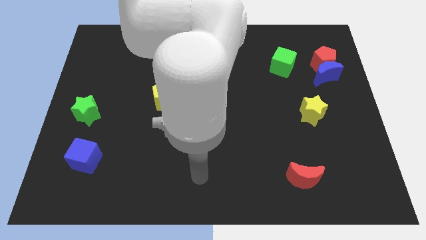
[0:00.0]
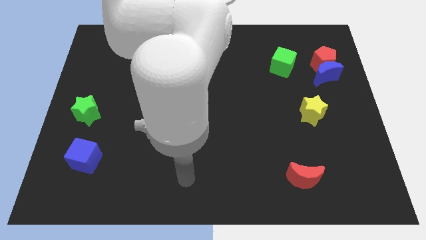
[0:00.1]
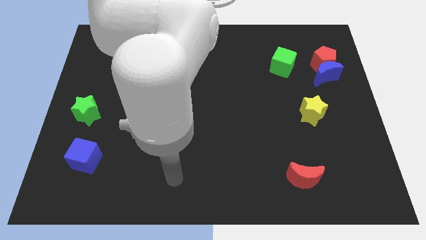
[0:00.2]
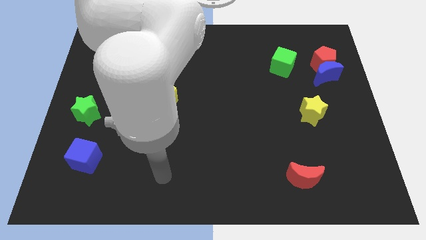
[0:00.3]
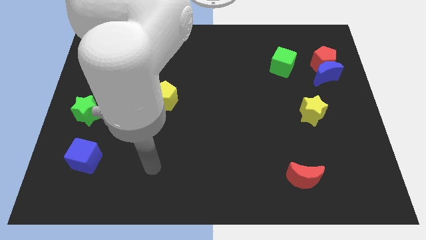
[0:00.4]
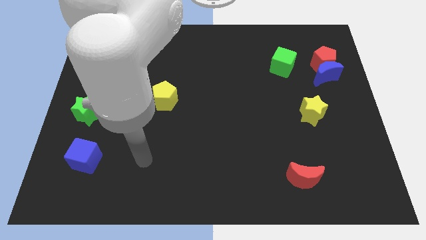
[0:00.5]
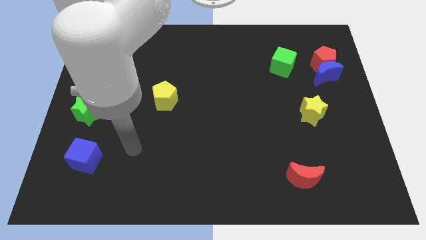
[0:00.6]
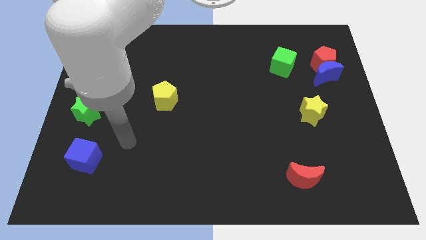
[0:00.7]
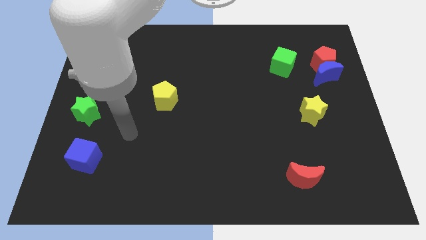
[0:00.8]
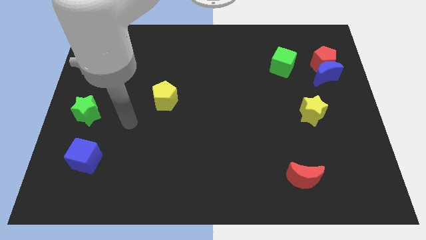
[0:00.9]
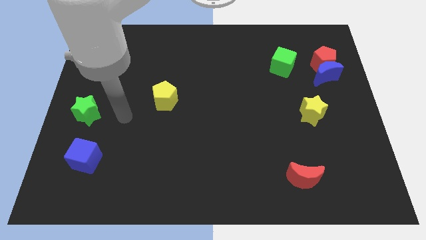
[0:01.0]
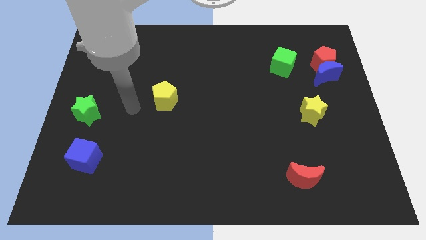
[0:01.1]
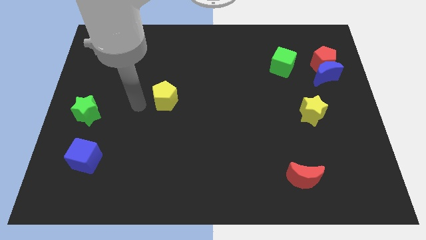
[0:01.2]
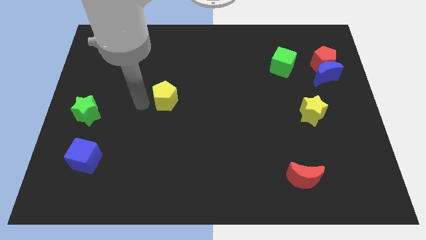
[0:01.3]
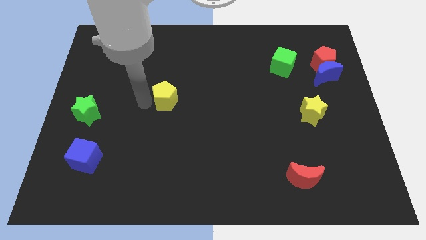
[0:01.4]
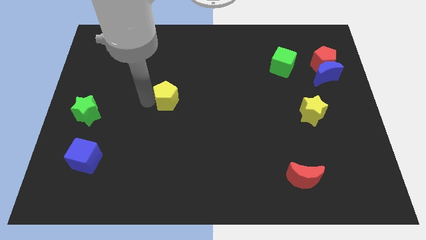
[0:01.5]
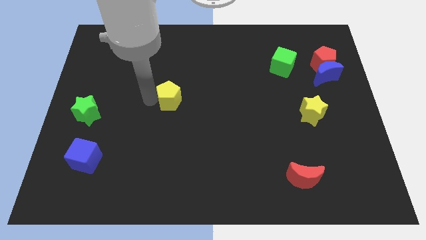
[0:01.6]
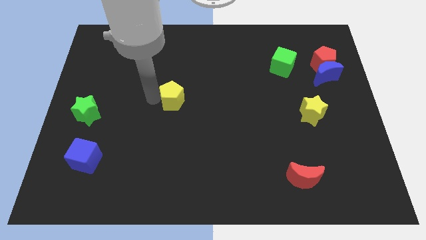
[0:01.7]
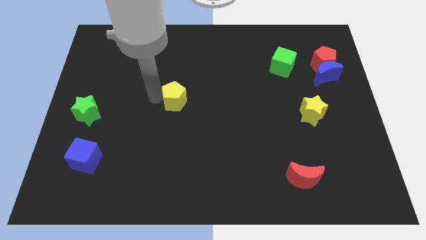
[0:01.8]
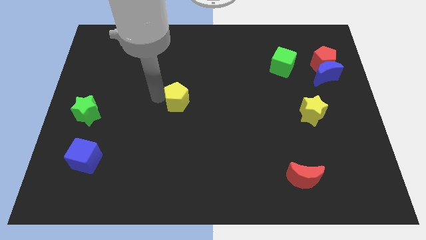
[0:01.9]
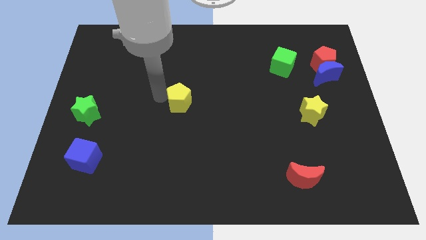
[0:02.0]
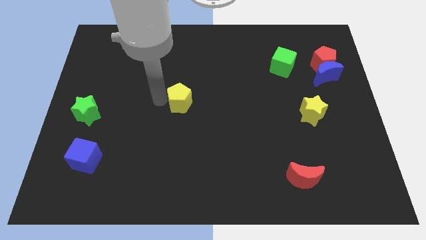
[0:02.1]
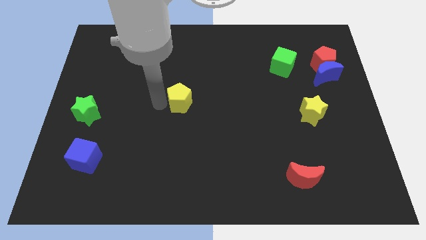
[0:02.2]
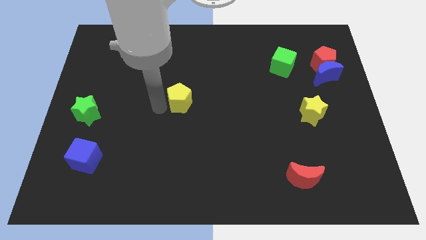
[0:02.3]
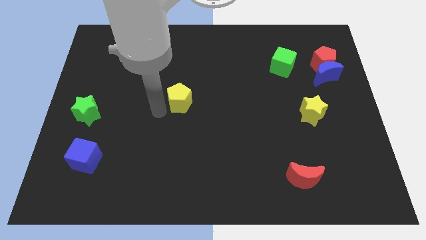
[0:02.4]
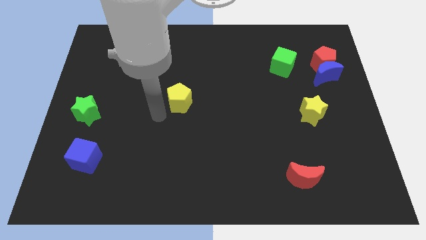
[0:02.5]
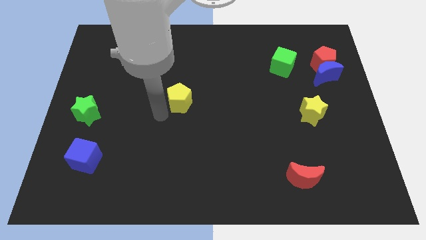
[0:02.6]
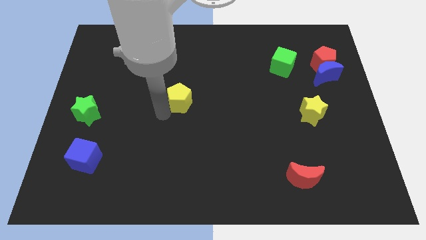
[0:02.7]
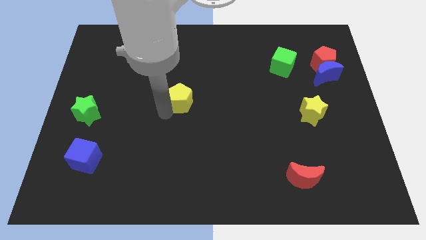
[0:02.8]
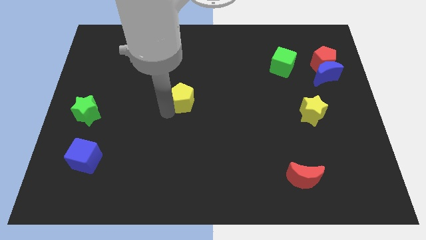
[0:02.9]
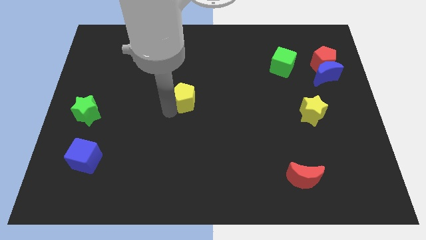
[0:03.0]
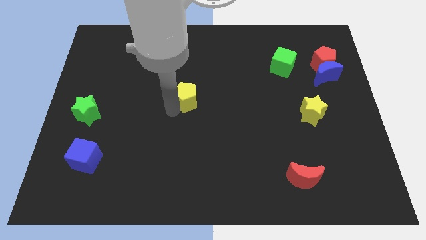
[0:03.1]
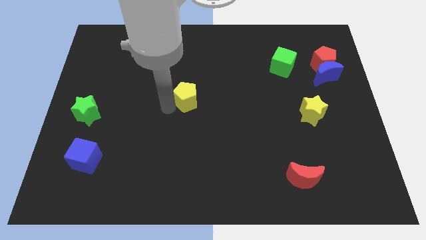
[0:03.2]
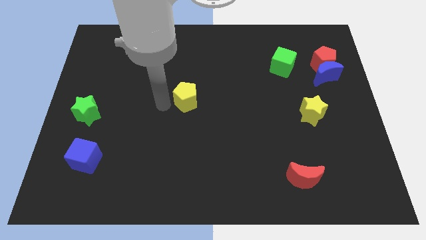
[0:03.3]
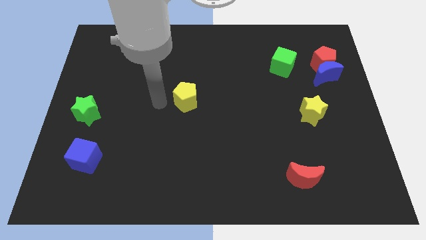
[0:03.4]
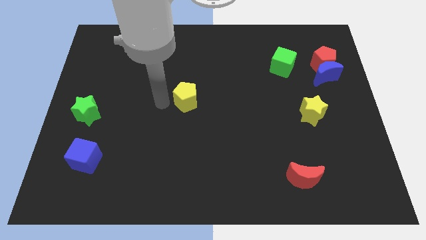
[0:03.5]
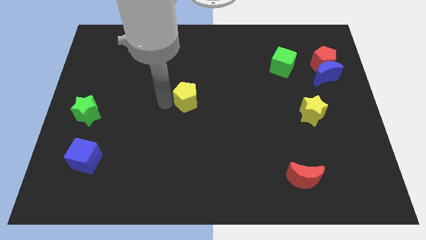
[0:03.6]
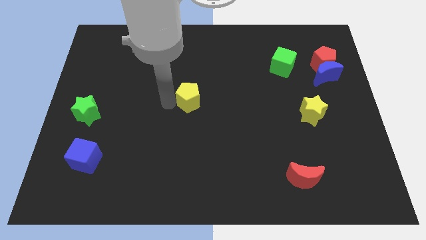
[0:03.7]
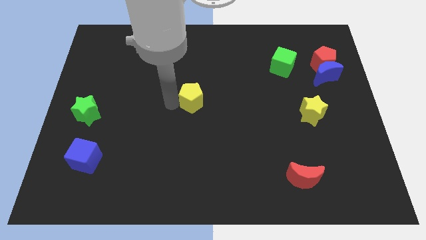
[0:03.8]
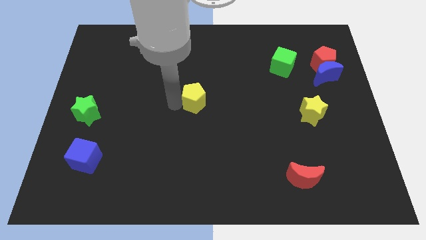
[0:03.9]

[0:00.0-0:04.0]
slide the yellow pentagon right a little bit

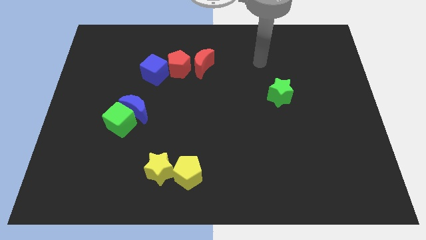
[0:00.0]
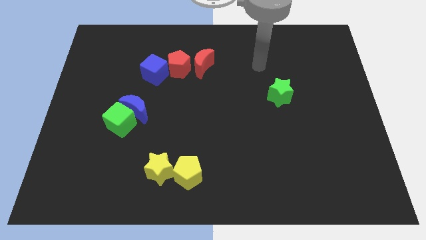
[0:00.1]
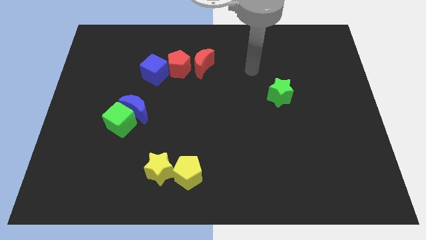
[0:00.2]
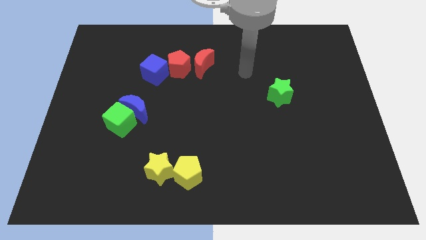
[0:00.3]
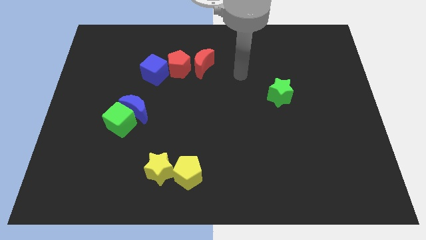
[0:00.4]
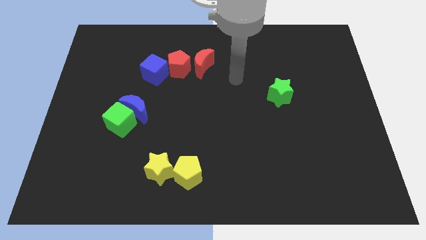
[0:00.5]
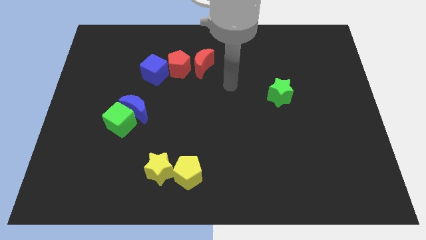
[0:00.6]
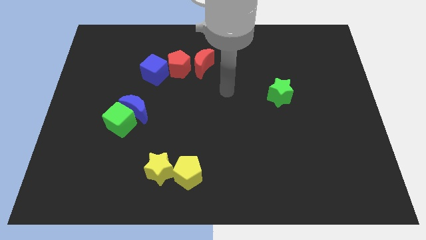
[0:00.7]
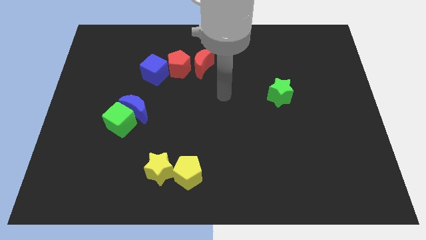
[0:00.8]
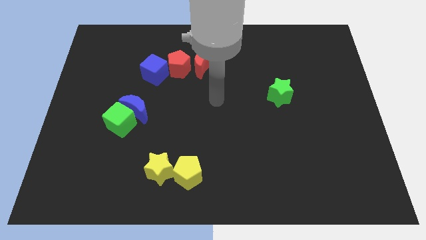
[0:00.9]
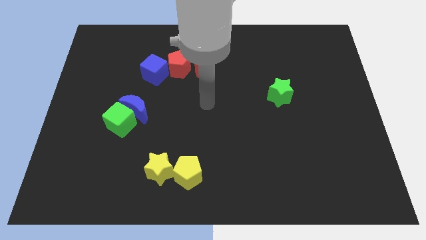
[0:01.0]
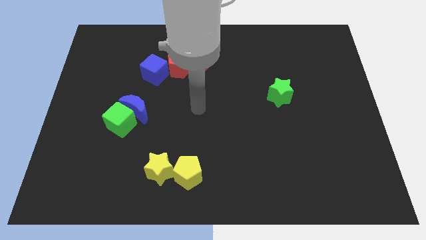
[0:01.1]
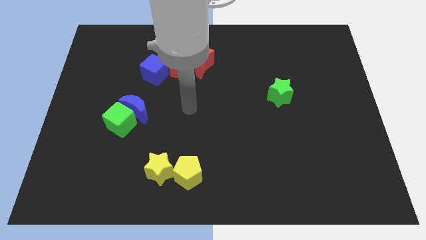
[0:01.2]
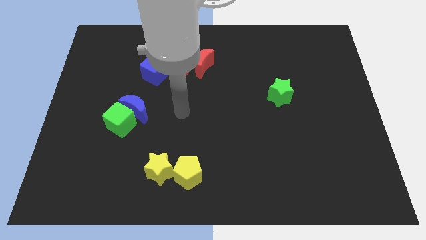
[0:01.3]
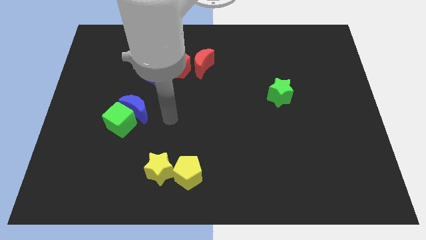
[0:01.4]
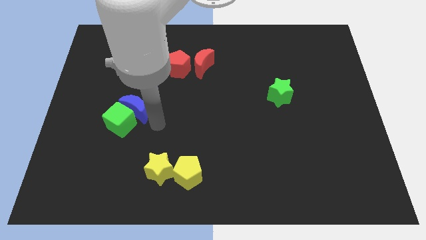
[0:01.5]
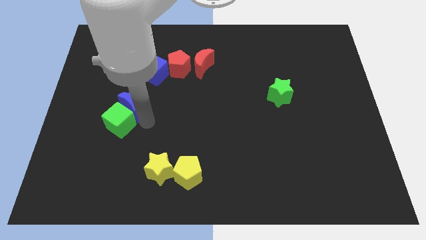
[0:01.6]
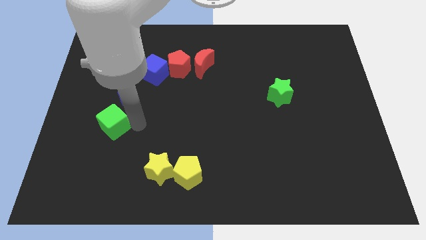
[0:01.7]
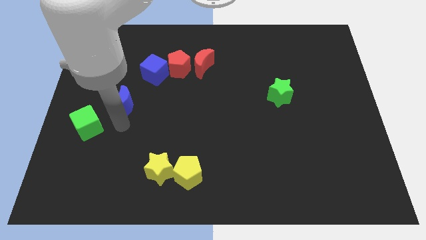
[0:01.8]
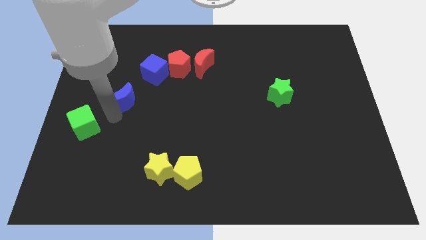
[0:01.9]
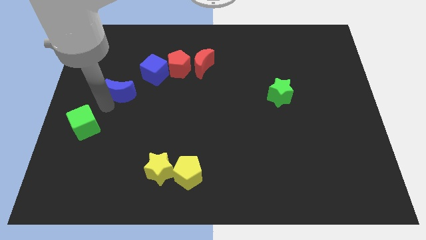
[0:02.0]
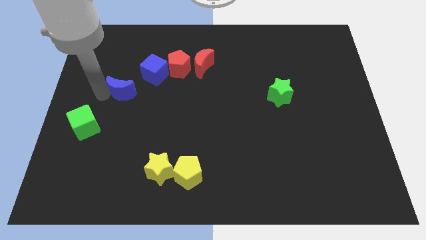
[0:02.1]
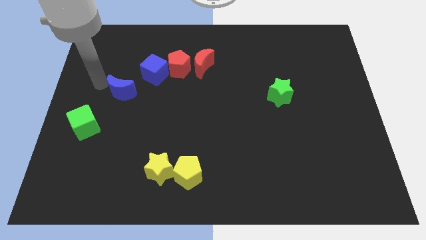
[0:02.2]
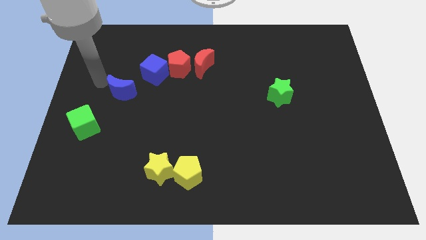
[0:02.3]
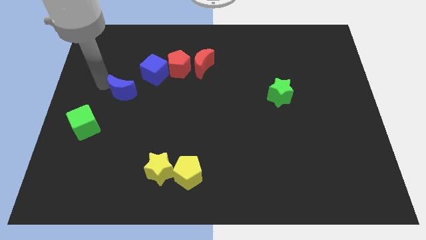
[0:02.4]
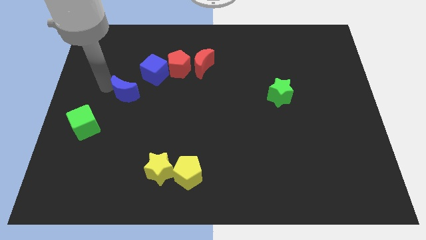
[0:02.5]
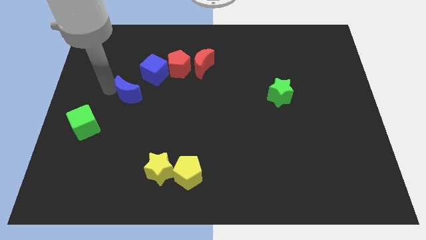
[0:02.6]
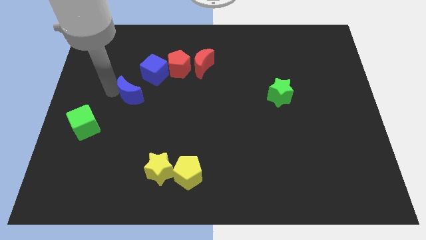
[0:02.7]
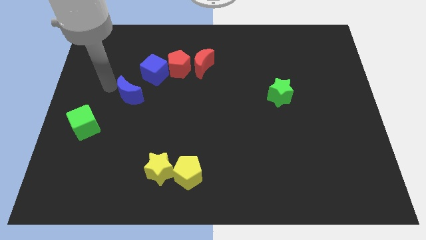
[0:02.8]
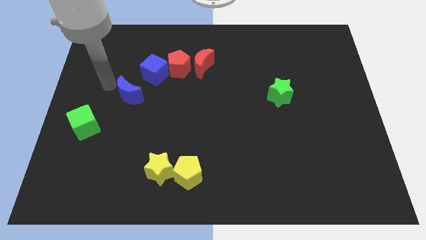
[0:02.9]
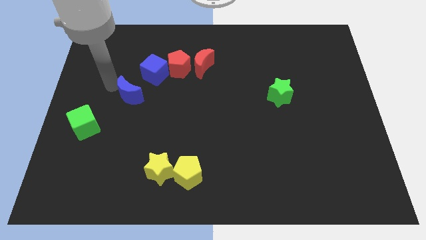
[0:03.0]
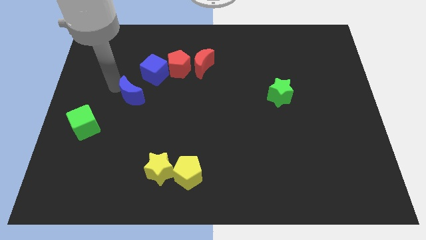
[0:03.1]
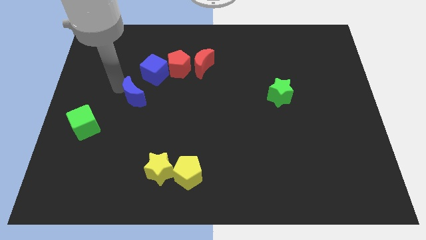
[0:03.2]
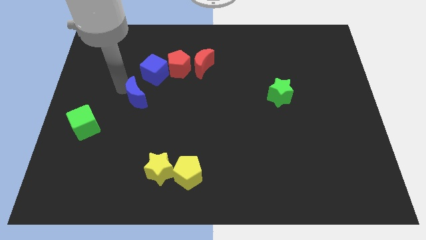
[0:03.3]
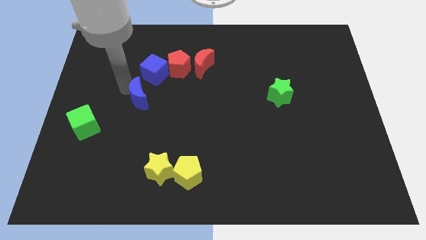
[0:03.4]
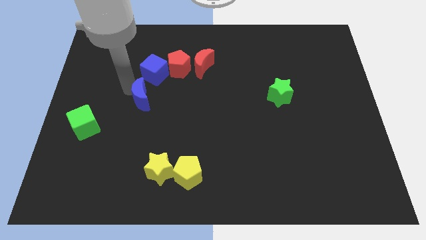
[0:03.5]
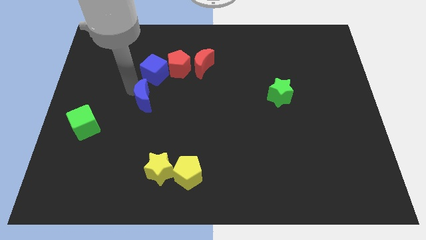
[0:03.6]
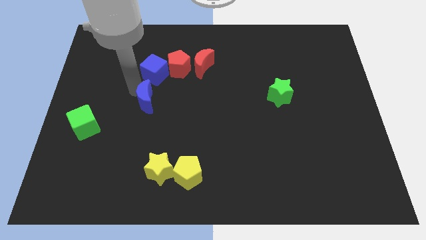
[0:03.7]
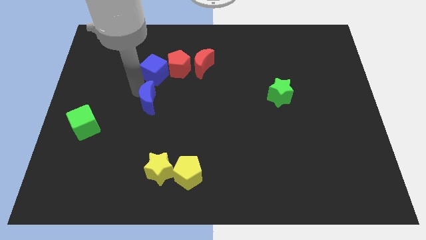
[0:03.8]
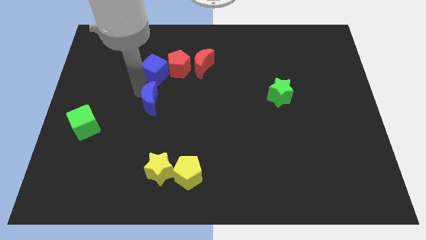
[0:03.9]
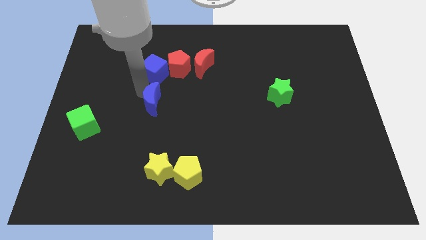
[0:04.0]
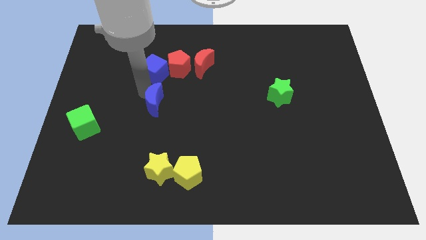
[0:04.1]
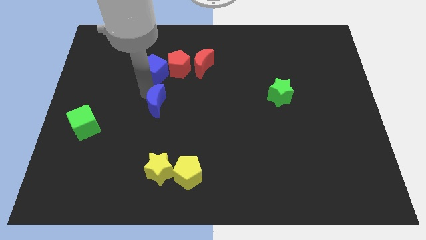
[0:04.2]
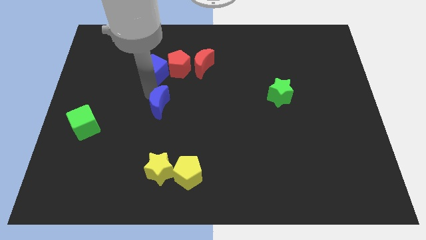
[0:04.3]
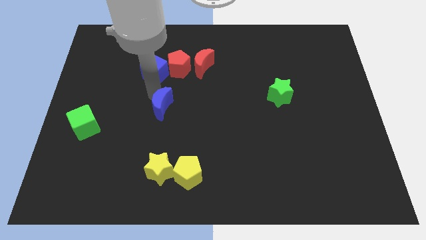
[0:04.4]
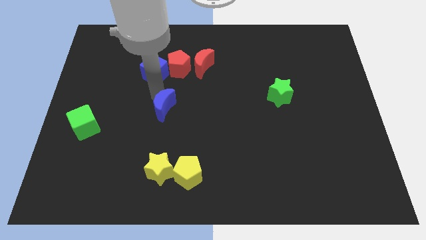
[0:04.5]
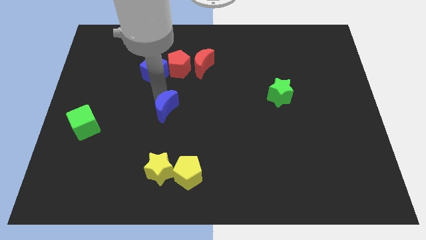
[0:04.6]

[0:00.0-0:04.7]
move the blue moon right a little bit
